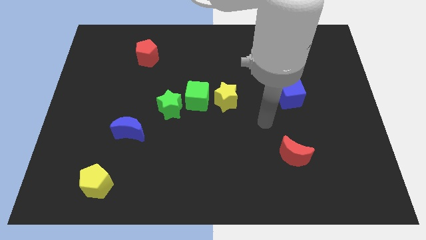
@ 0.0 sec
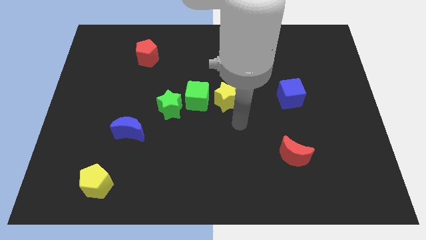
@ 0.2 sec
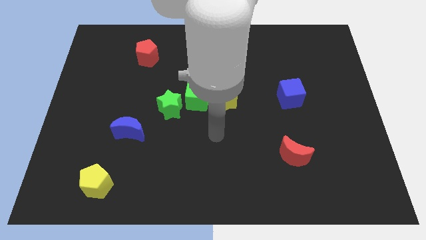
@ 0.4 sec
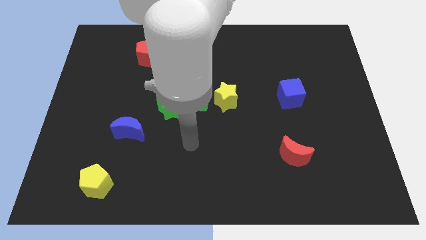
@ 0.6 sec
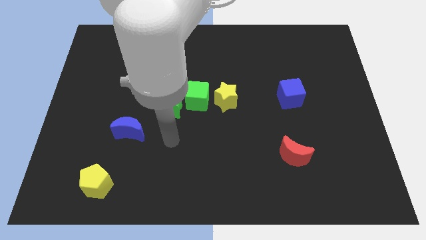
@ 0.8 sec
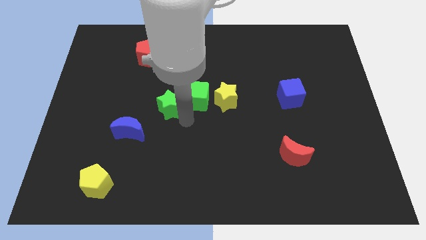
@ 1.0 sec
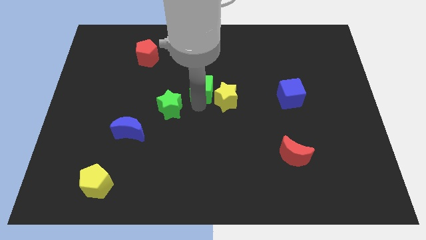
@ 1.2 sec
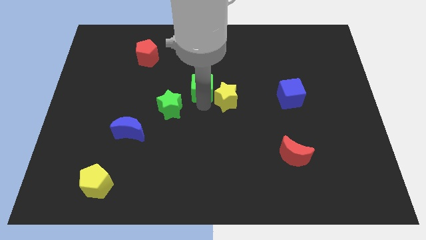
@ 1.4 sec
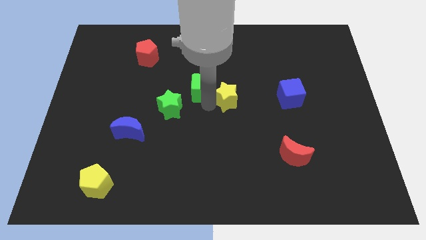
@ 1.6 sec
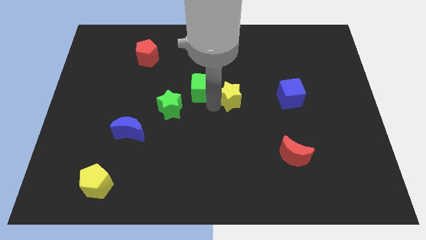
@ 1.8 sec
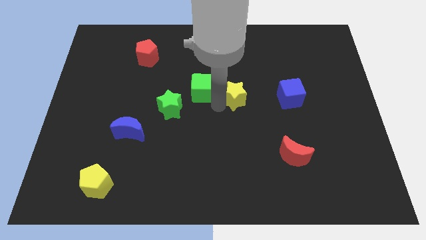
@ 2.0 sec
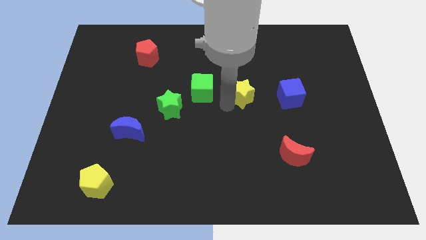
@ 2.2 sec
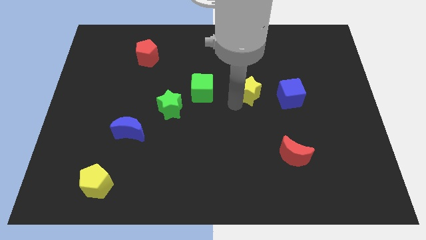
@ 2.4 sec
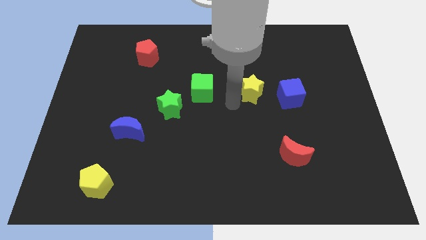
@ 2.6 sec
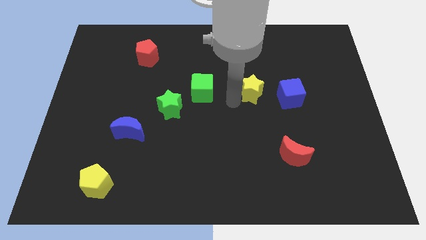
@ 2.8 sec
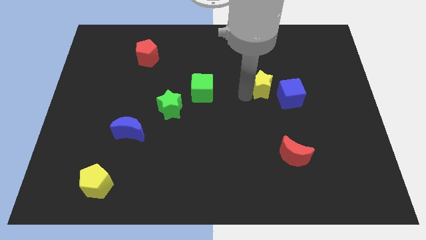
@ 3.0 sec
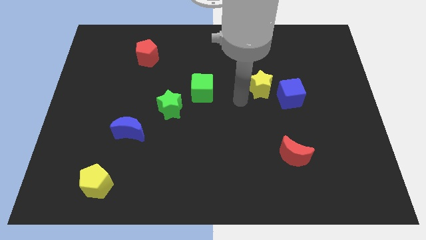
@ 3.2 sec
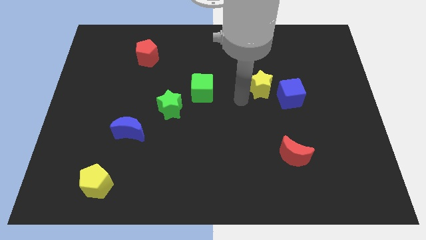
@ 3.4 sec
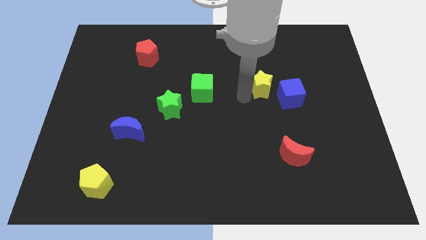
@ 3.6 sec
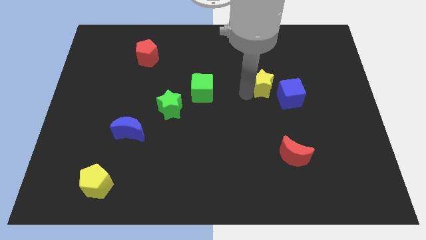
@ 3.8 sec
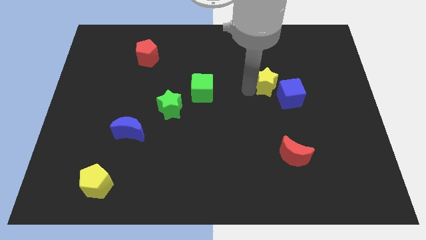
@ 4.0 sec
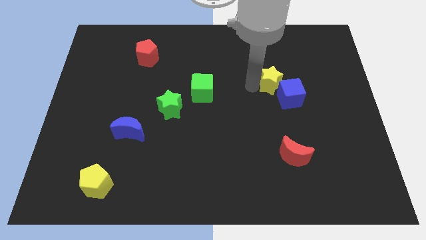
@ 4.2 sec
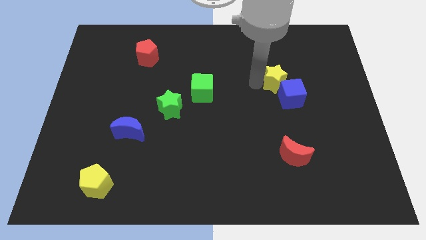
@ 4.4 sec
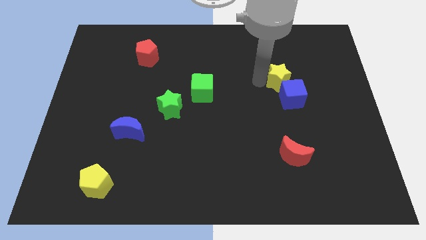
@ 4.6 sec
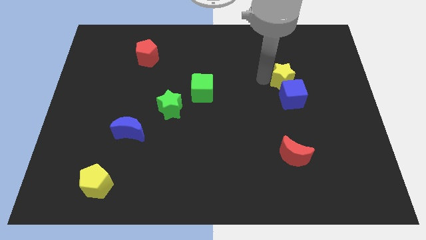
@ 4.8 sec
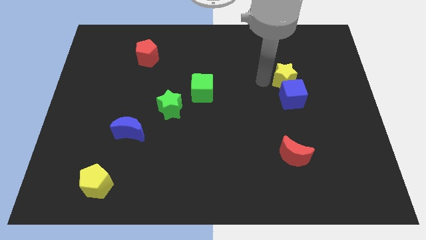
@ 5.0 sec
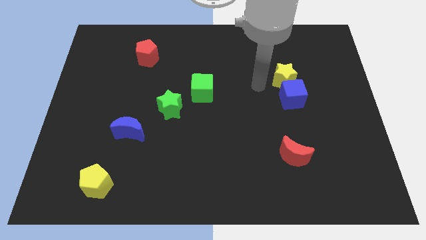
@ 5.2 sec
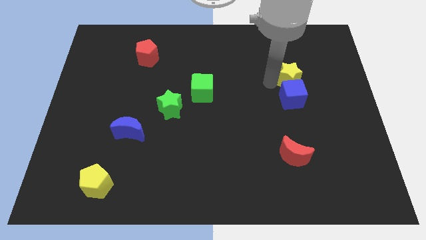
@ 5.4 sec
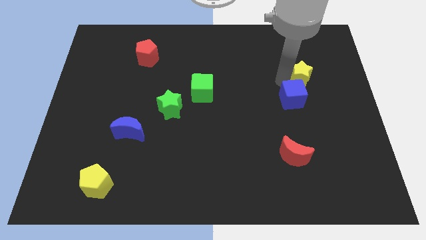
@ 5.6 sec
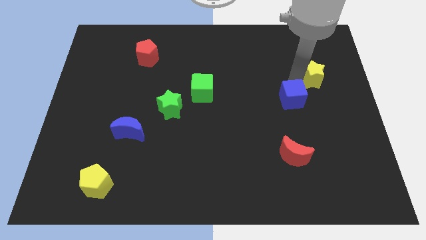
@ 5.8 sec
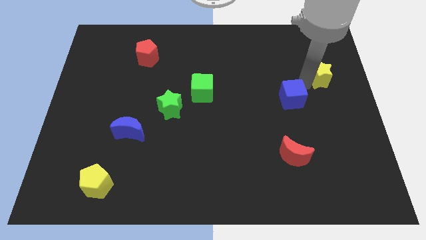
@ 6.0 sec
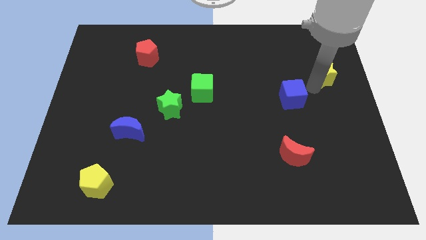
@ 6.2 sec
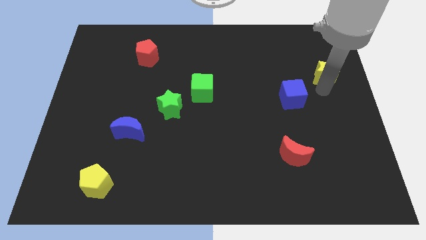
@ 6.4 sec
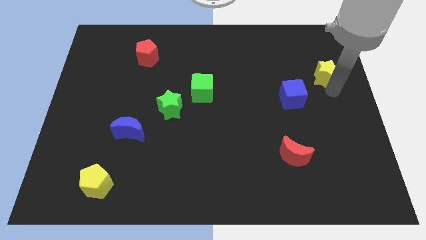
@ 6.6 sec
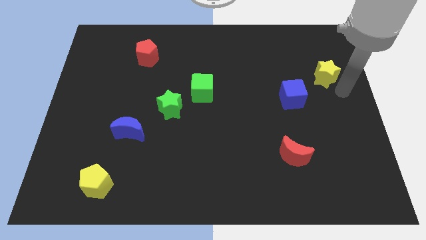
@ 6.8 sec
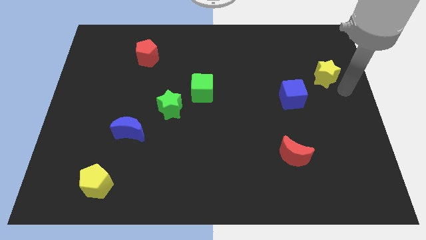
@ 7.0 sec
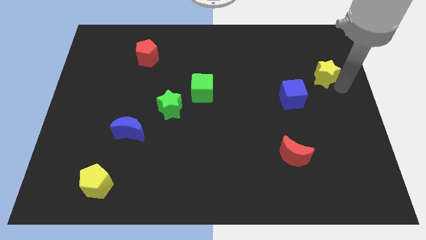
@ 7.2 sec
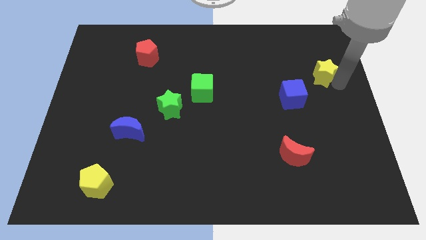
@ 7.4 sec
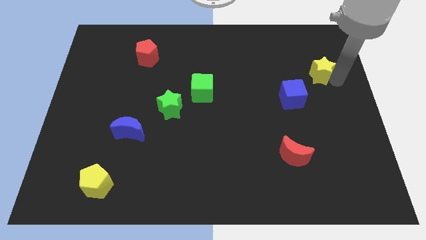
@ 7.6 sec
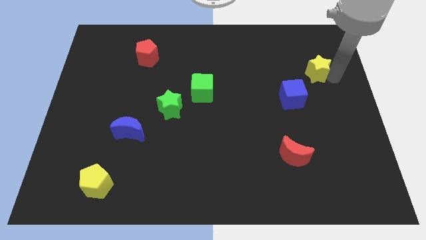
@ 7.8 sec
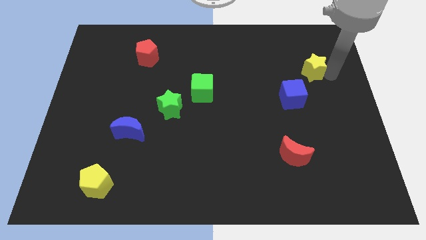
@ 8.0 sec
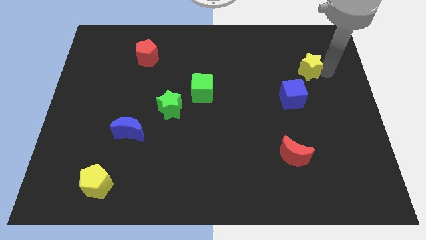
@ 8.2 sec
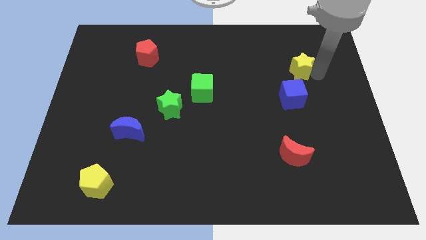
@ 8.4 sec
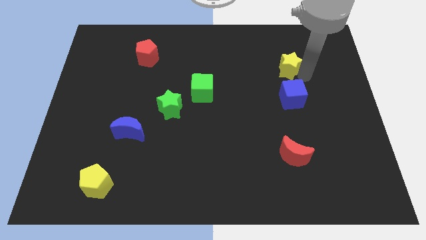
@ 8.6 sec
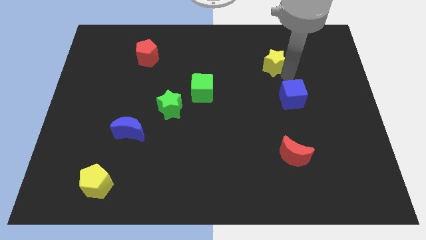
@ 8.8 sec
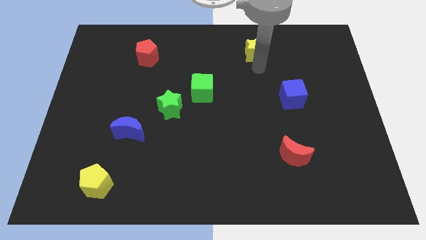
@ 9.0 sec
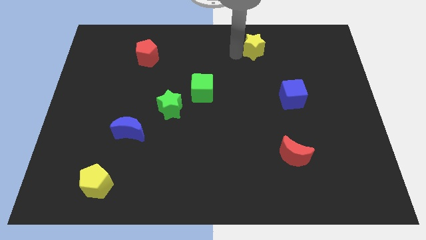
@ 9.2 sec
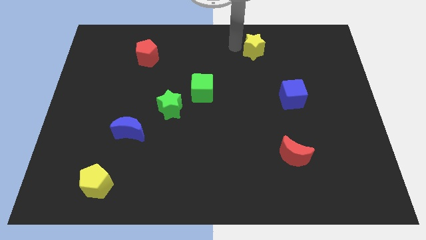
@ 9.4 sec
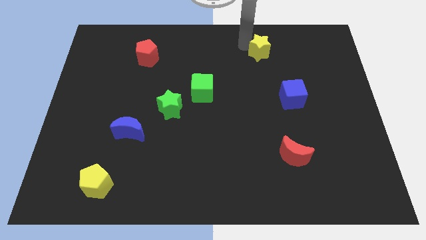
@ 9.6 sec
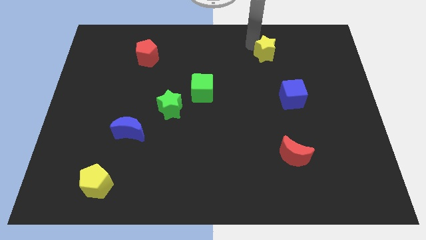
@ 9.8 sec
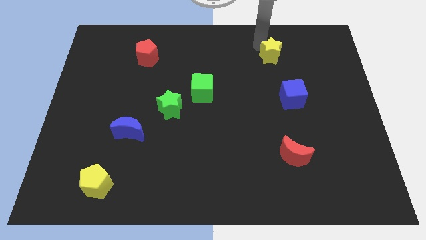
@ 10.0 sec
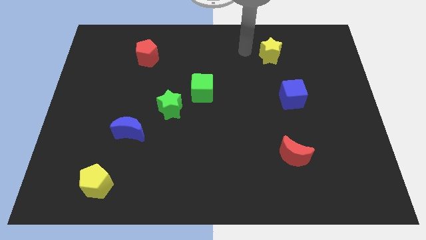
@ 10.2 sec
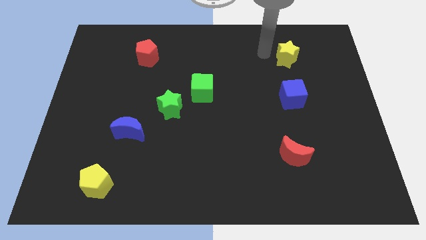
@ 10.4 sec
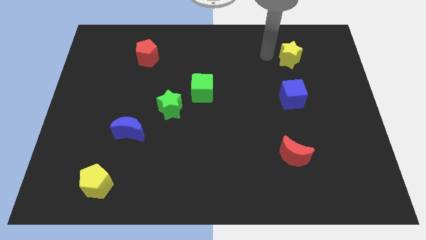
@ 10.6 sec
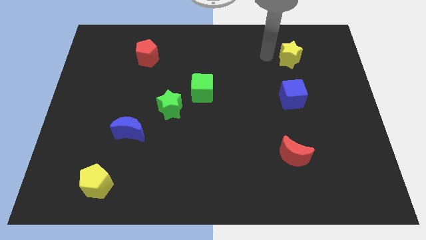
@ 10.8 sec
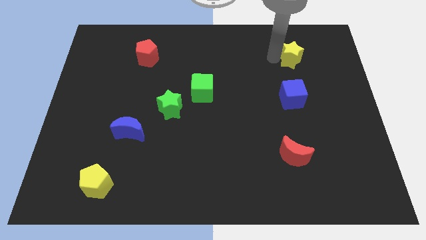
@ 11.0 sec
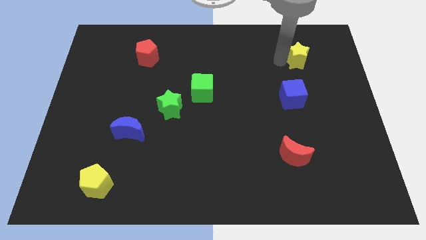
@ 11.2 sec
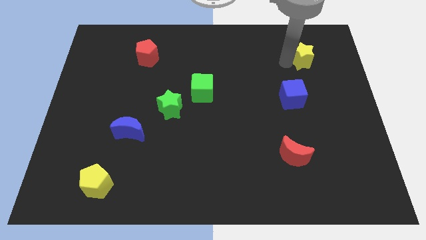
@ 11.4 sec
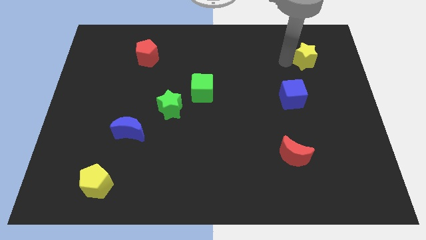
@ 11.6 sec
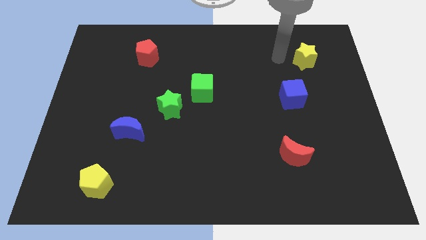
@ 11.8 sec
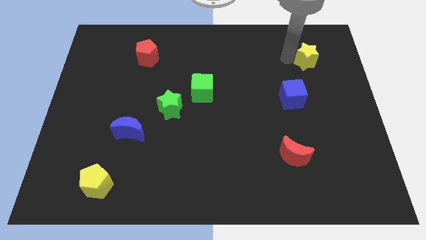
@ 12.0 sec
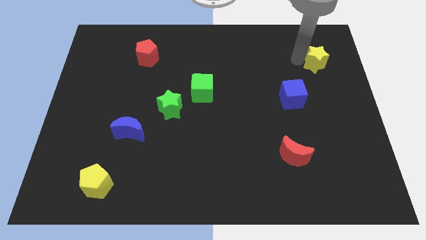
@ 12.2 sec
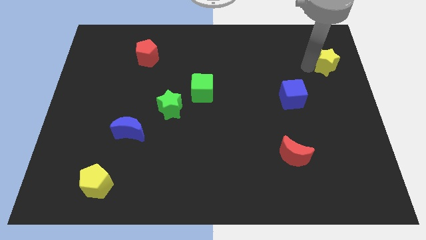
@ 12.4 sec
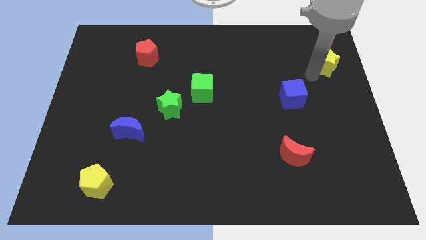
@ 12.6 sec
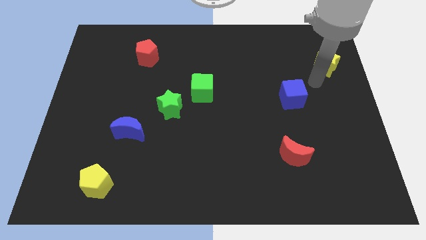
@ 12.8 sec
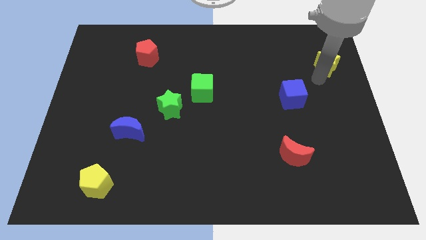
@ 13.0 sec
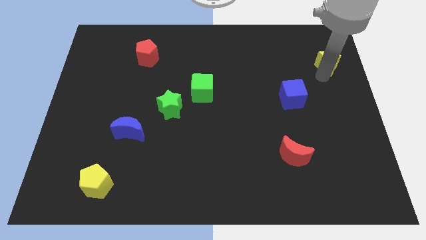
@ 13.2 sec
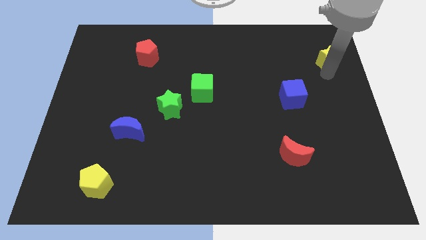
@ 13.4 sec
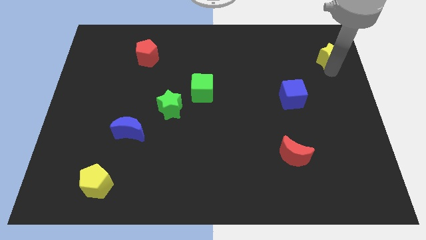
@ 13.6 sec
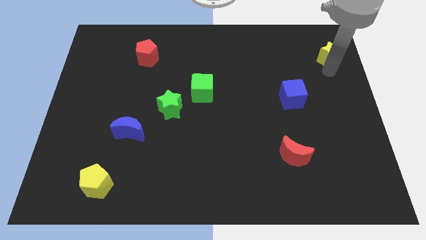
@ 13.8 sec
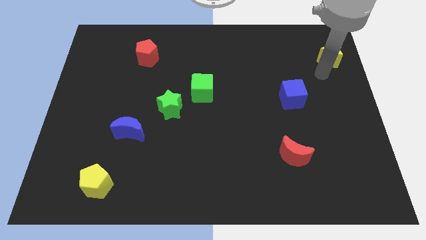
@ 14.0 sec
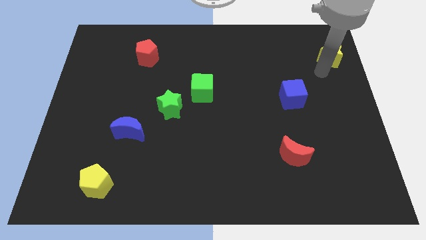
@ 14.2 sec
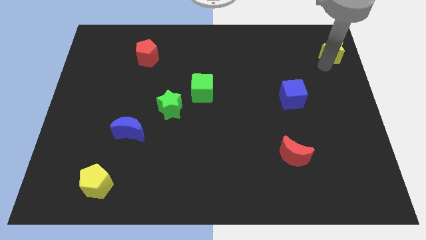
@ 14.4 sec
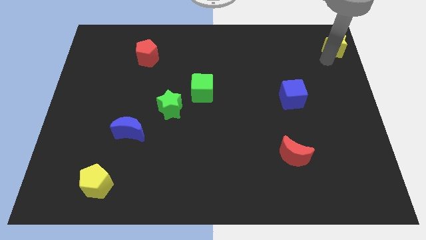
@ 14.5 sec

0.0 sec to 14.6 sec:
put the yellow star to the top right
